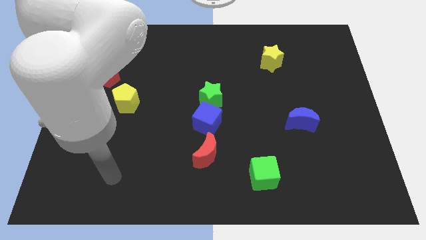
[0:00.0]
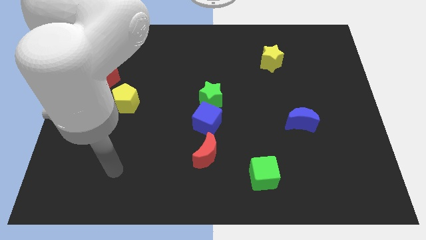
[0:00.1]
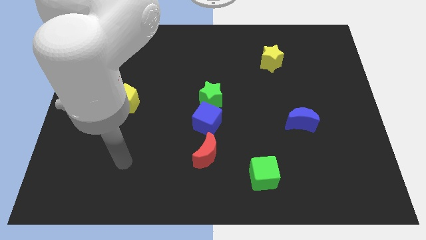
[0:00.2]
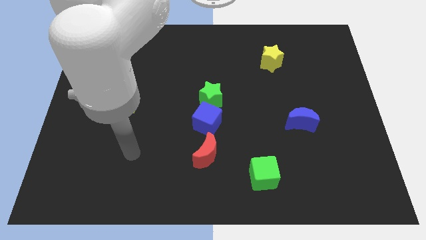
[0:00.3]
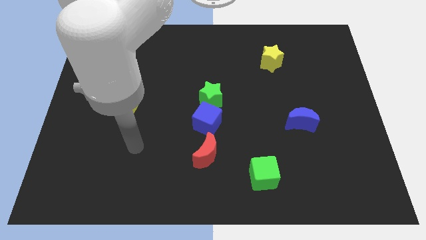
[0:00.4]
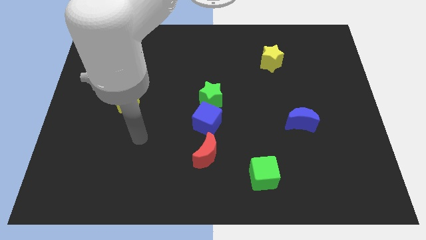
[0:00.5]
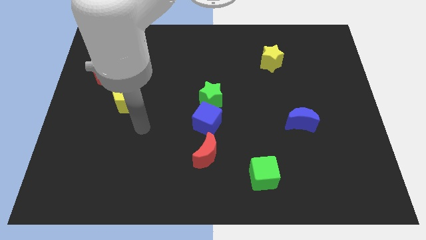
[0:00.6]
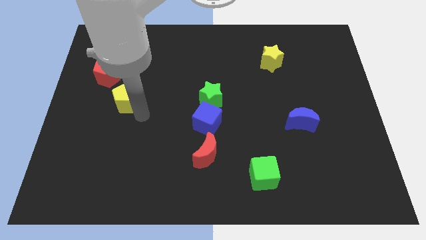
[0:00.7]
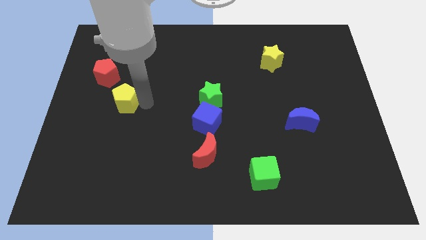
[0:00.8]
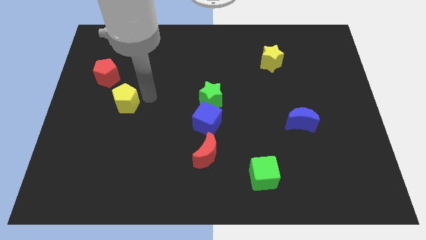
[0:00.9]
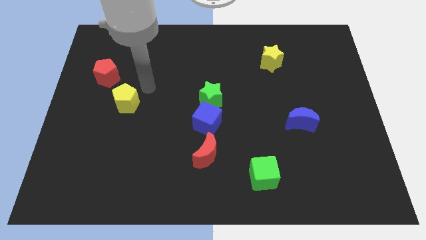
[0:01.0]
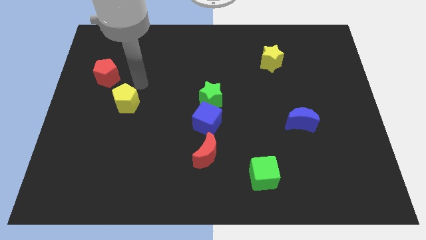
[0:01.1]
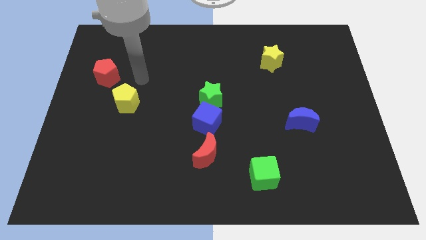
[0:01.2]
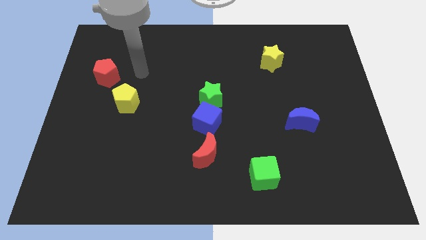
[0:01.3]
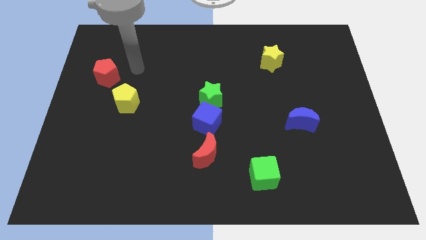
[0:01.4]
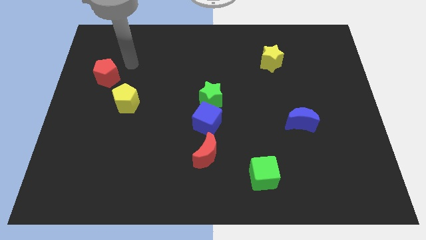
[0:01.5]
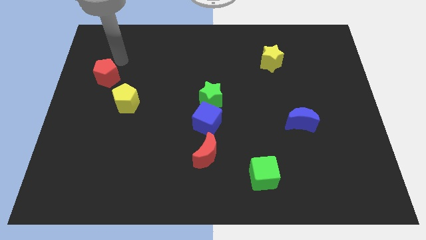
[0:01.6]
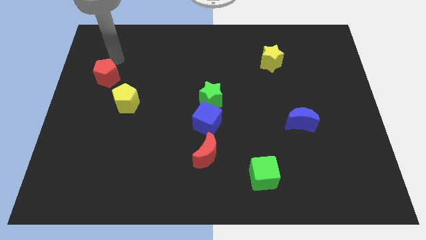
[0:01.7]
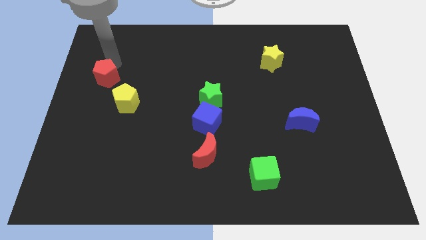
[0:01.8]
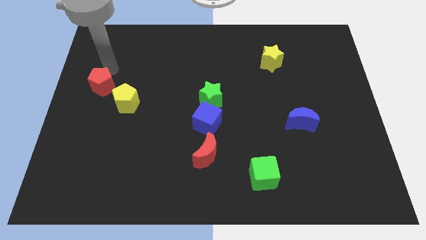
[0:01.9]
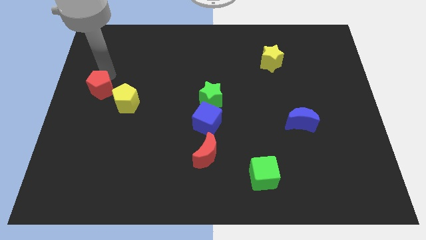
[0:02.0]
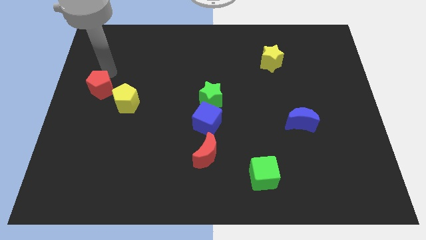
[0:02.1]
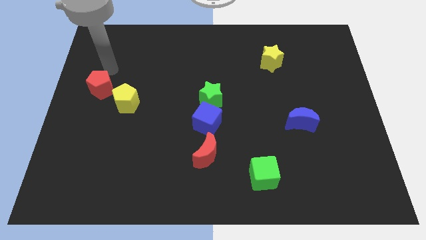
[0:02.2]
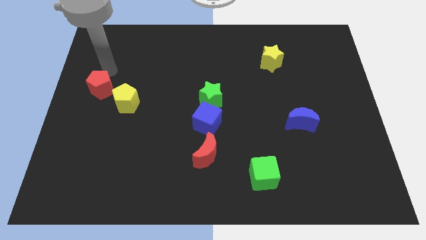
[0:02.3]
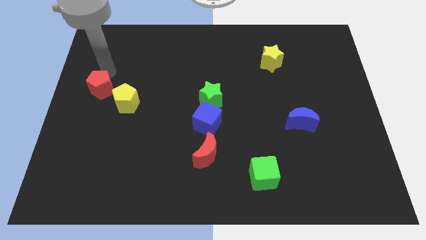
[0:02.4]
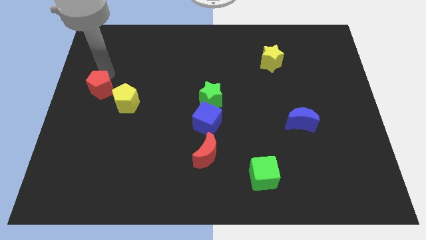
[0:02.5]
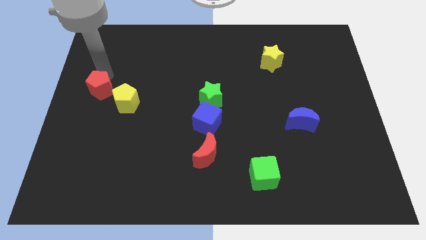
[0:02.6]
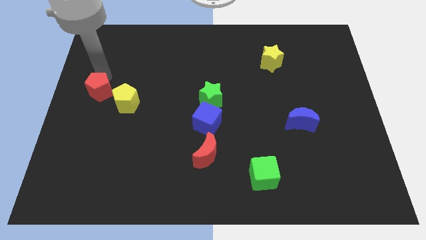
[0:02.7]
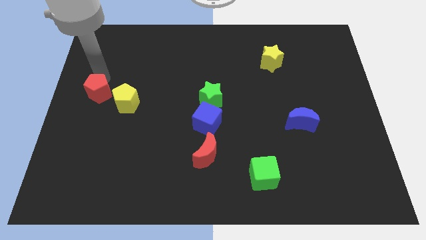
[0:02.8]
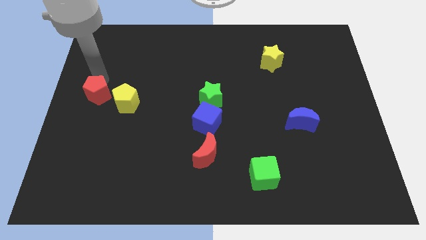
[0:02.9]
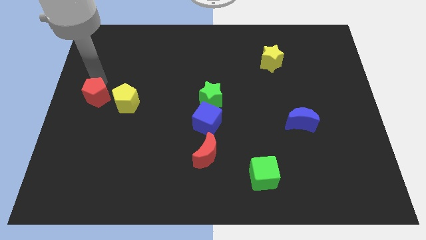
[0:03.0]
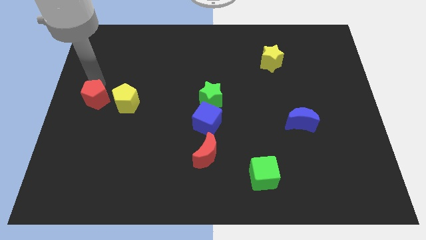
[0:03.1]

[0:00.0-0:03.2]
move the red pentagon down a little

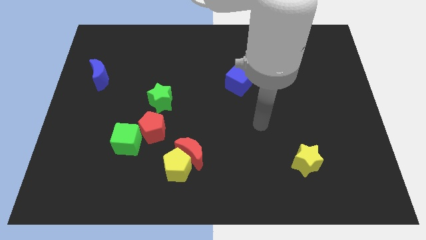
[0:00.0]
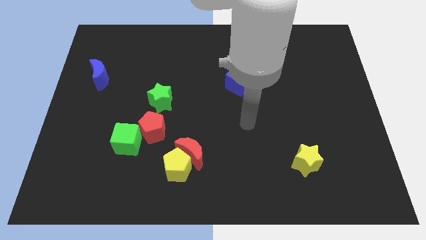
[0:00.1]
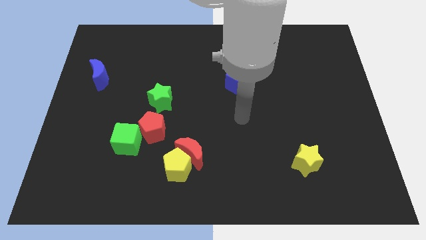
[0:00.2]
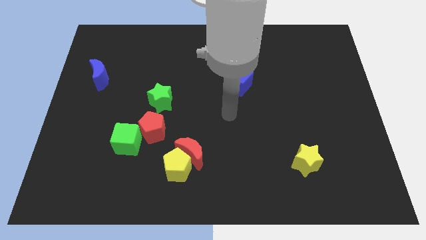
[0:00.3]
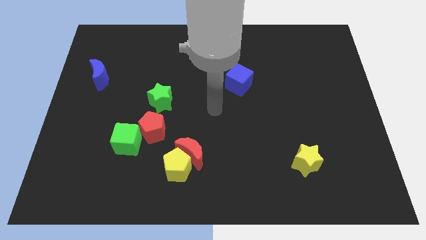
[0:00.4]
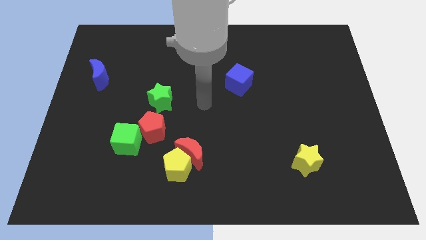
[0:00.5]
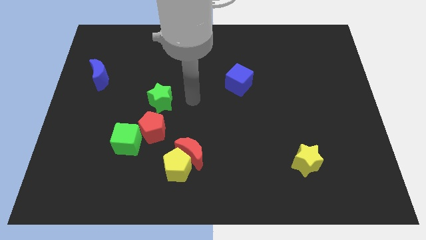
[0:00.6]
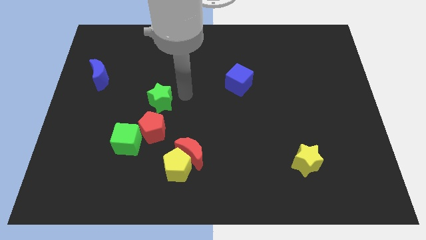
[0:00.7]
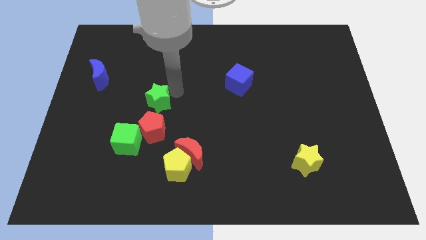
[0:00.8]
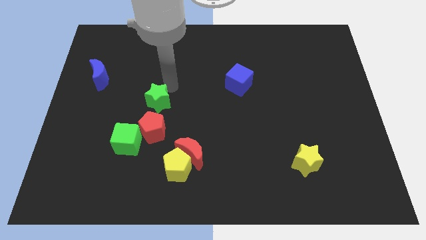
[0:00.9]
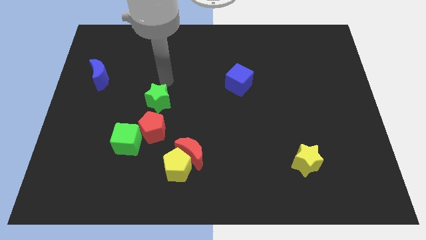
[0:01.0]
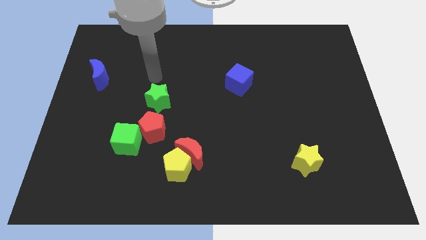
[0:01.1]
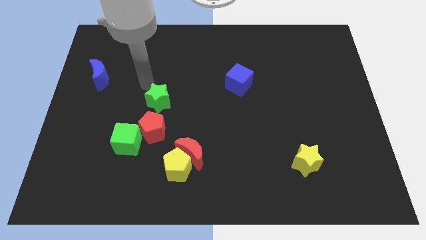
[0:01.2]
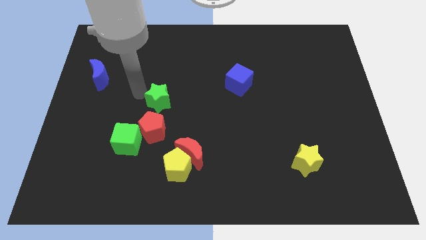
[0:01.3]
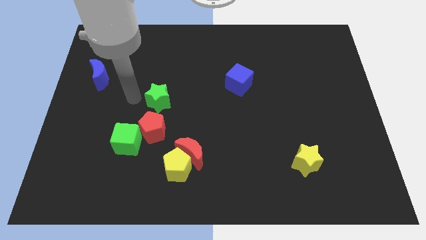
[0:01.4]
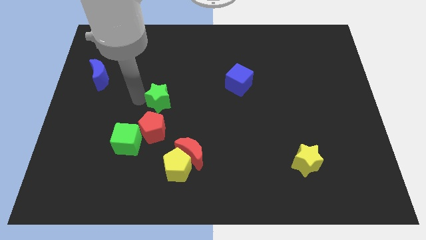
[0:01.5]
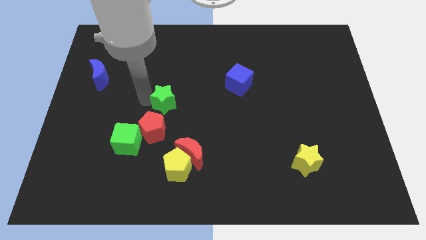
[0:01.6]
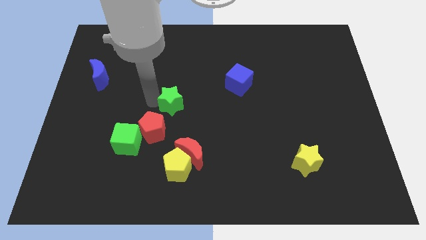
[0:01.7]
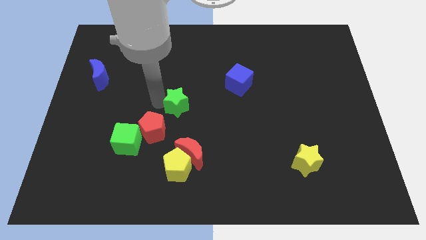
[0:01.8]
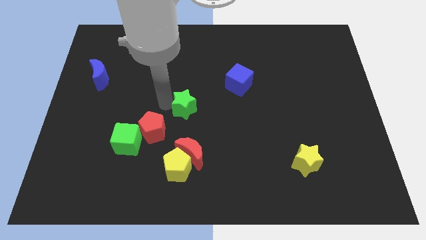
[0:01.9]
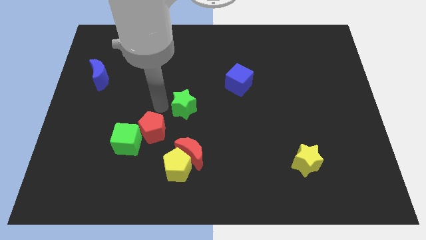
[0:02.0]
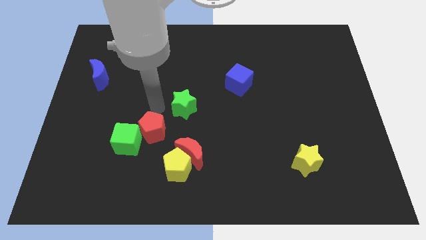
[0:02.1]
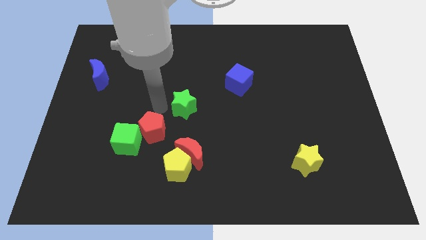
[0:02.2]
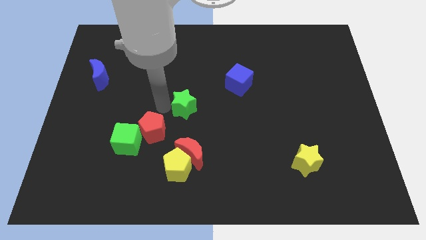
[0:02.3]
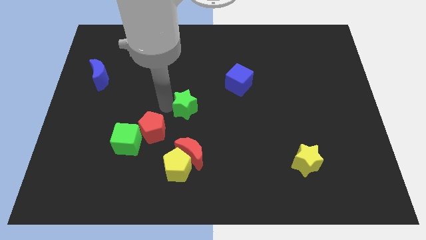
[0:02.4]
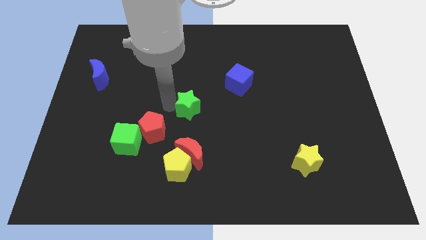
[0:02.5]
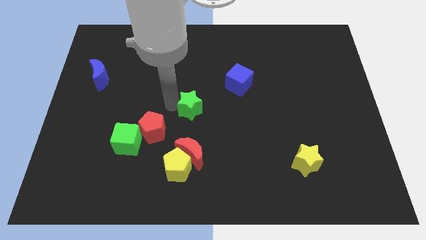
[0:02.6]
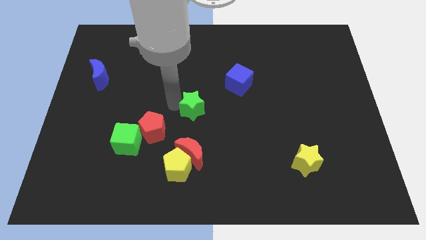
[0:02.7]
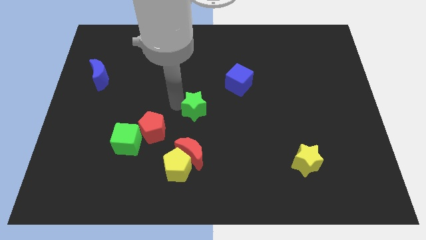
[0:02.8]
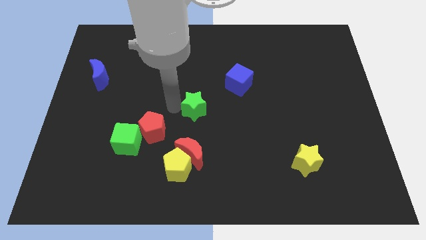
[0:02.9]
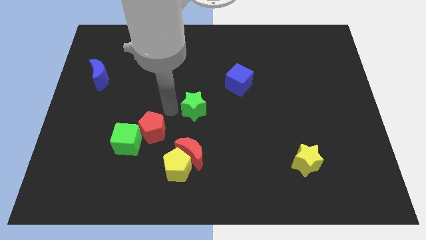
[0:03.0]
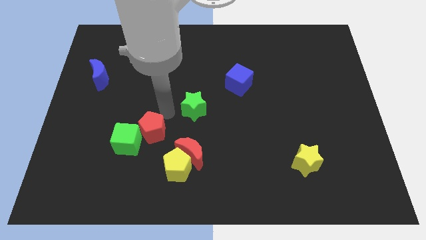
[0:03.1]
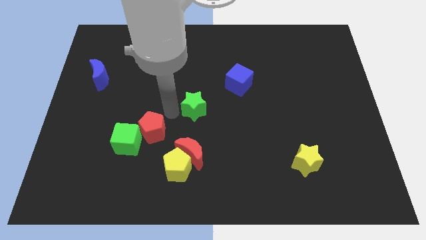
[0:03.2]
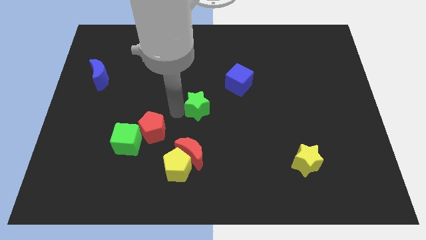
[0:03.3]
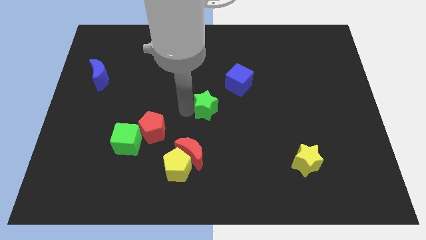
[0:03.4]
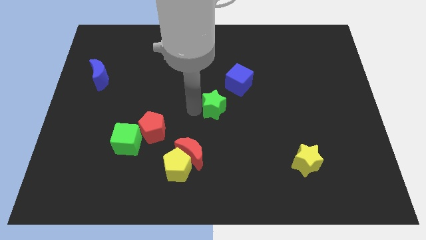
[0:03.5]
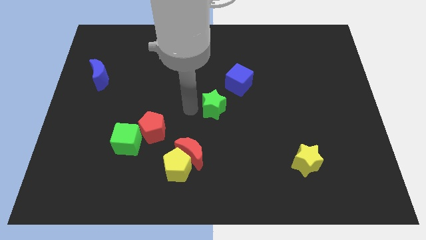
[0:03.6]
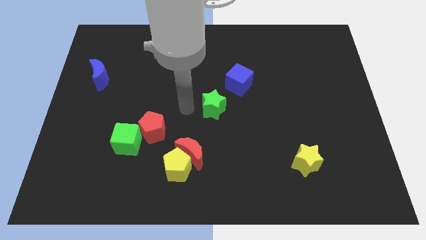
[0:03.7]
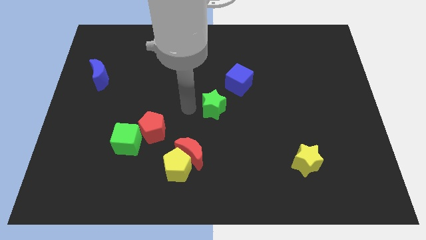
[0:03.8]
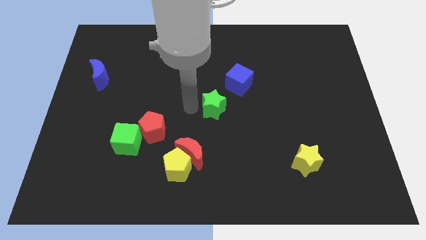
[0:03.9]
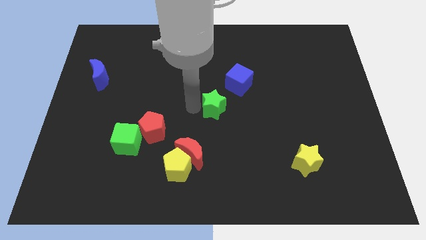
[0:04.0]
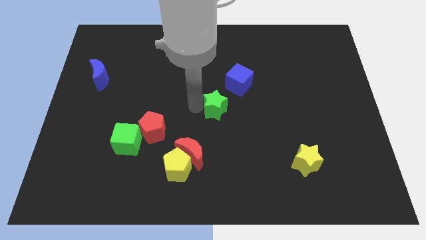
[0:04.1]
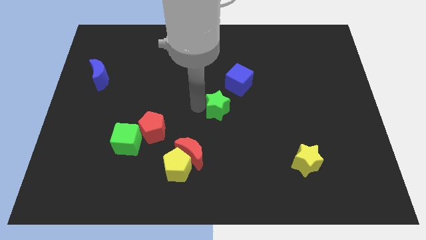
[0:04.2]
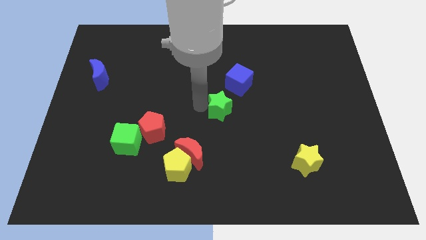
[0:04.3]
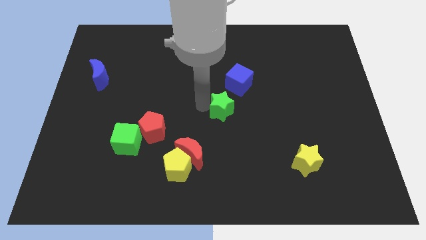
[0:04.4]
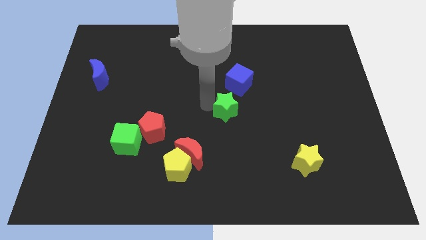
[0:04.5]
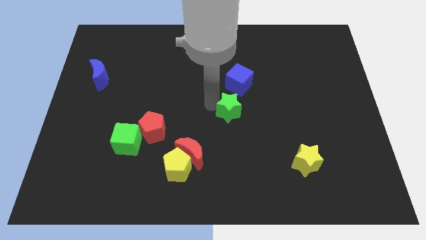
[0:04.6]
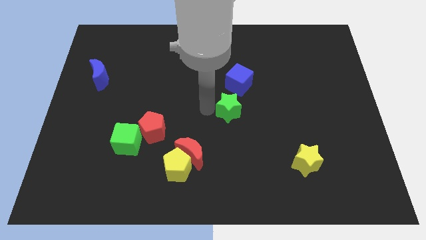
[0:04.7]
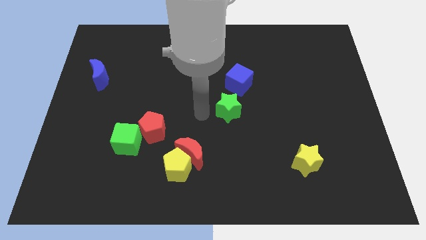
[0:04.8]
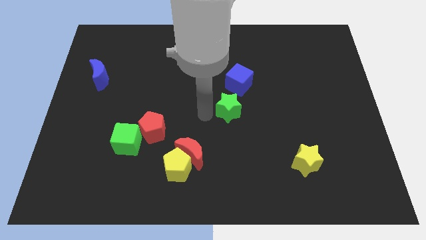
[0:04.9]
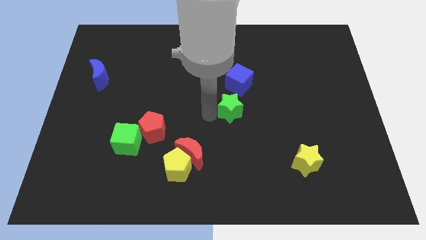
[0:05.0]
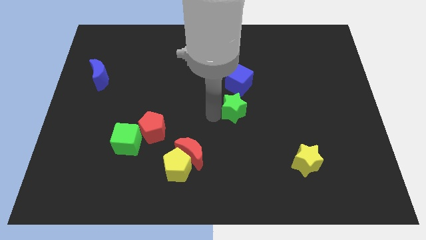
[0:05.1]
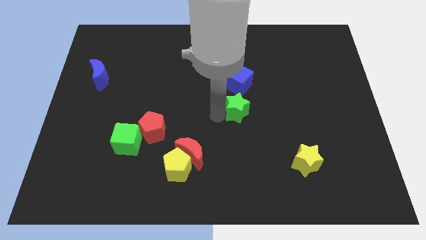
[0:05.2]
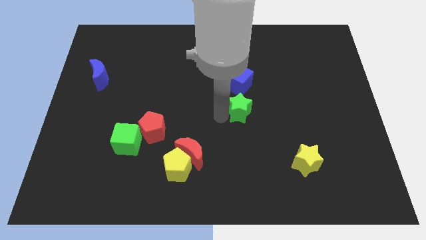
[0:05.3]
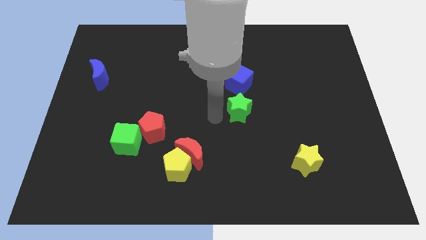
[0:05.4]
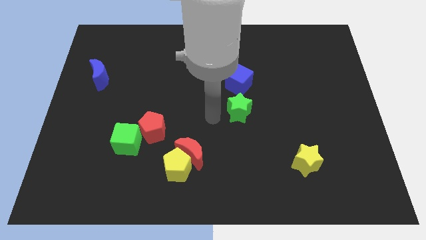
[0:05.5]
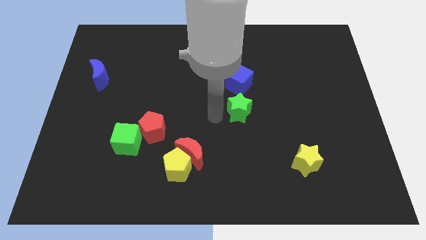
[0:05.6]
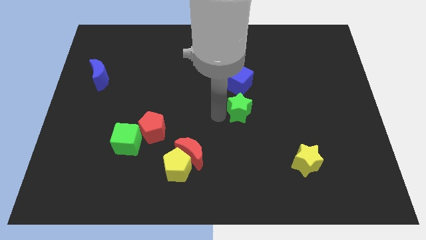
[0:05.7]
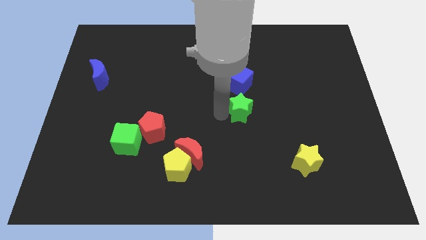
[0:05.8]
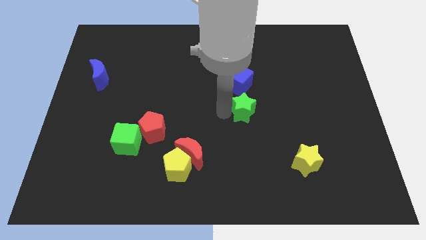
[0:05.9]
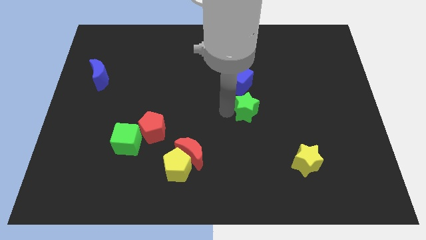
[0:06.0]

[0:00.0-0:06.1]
push the green star right
